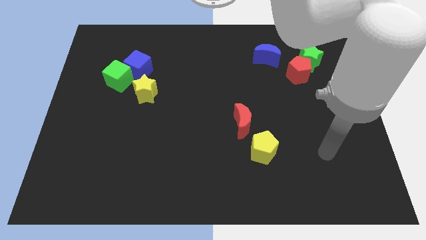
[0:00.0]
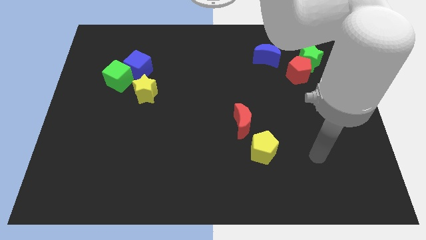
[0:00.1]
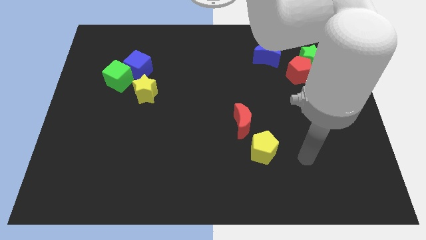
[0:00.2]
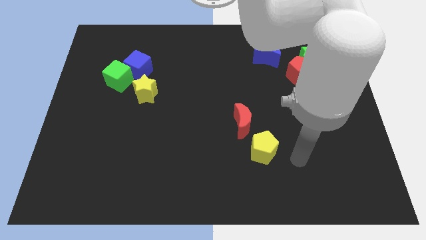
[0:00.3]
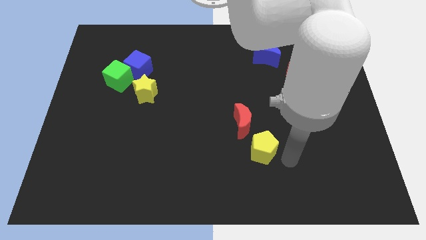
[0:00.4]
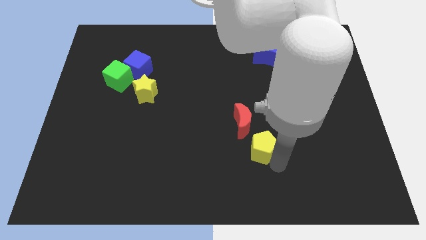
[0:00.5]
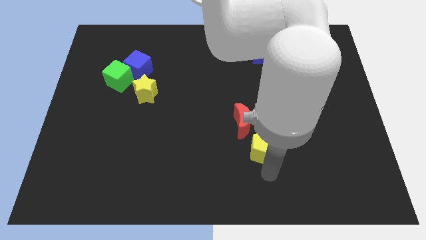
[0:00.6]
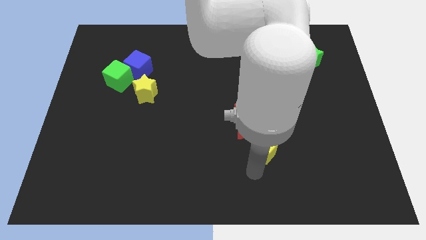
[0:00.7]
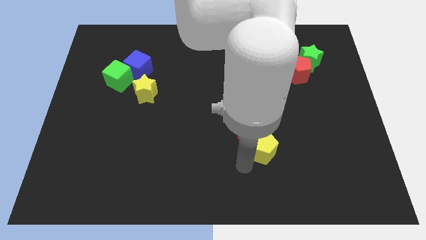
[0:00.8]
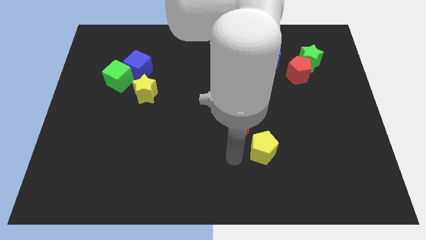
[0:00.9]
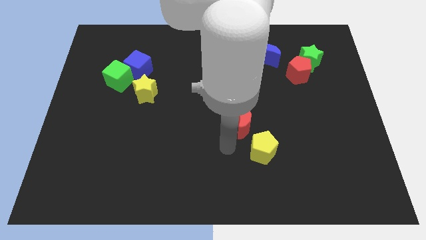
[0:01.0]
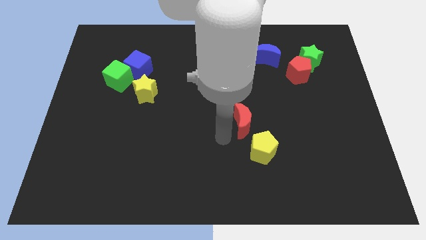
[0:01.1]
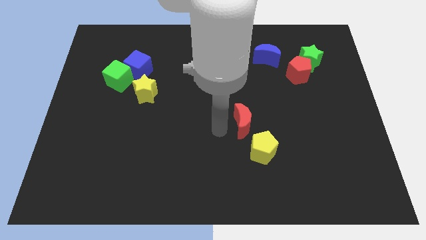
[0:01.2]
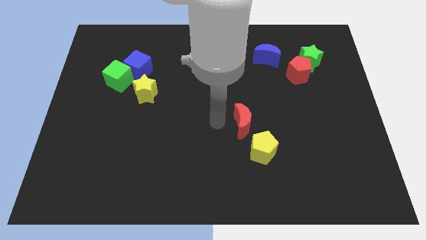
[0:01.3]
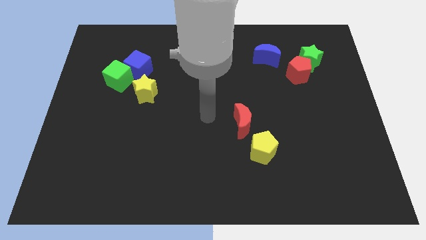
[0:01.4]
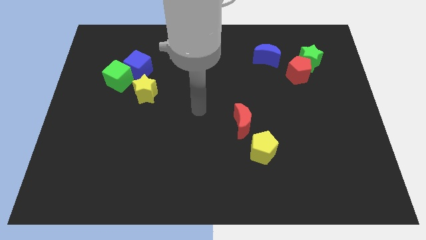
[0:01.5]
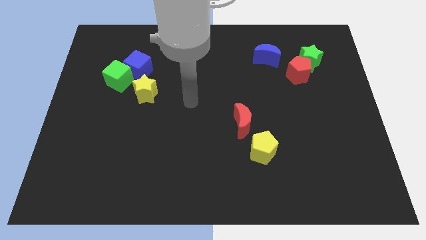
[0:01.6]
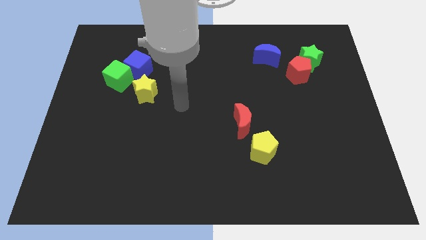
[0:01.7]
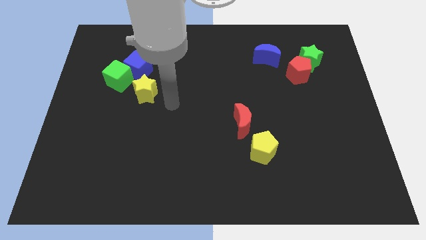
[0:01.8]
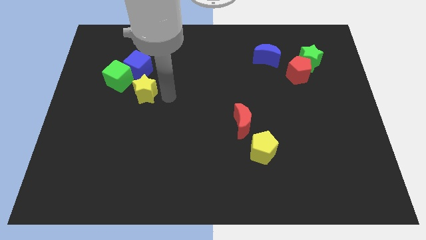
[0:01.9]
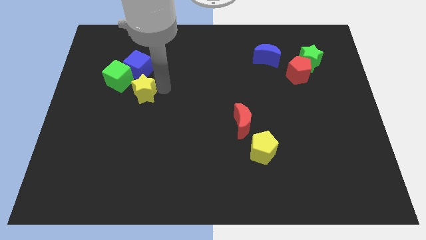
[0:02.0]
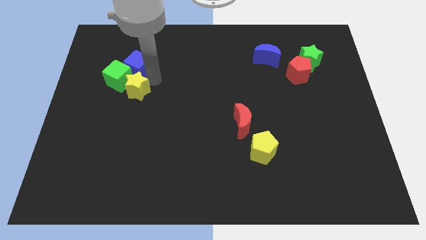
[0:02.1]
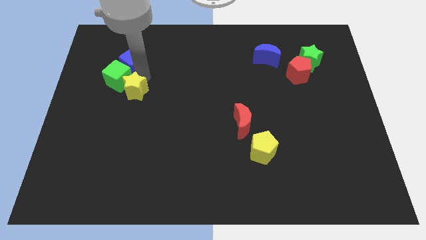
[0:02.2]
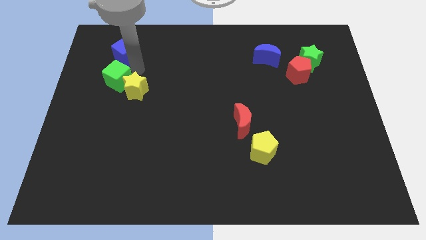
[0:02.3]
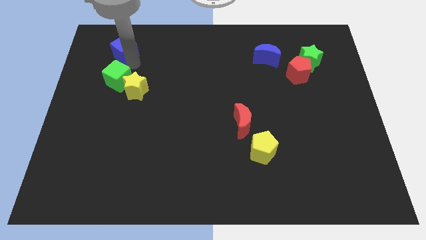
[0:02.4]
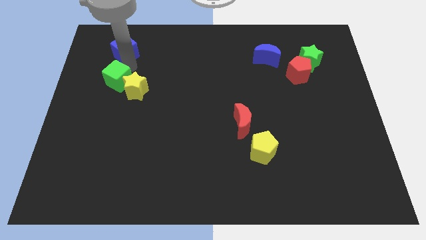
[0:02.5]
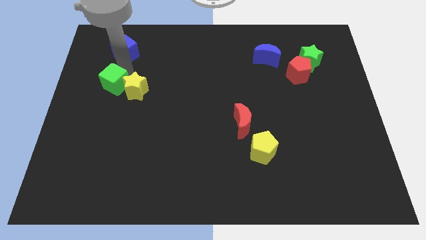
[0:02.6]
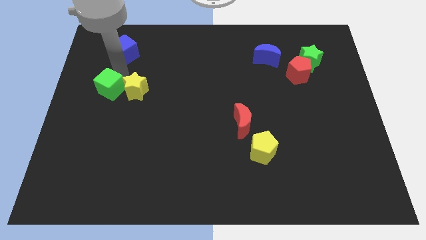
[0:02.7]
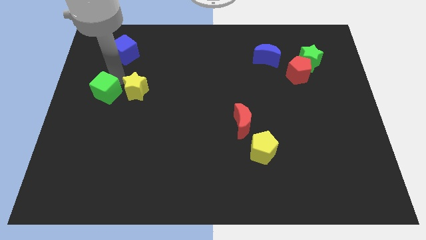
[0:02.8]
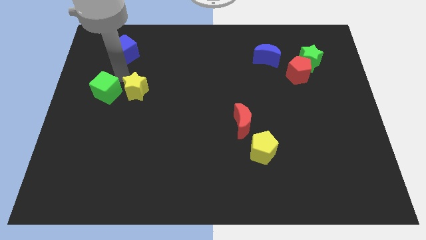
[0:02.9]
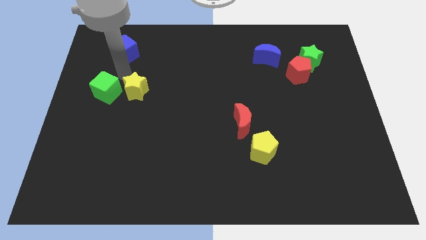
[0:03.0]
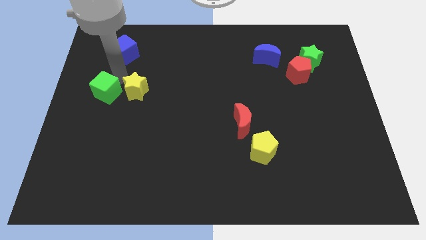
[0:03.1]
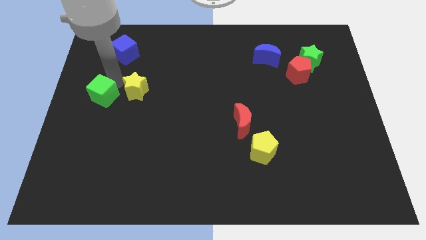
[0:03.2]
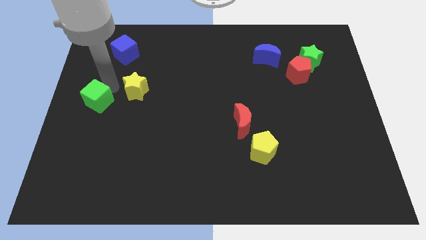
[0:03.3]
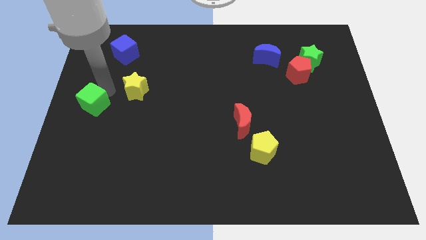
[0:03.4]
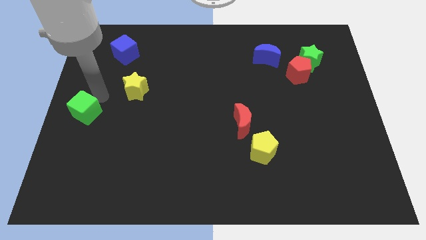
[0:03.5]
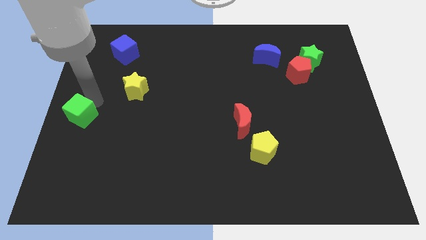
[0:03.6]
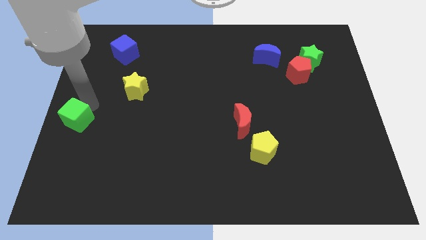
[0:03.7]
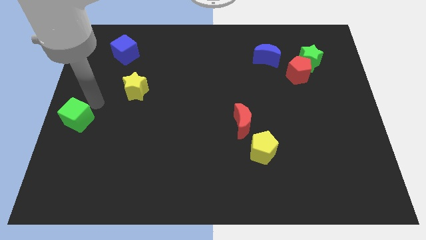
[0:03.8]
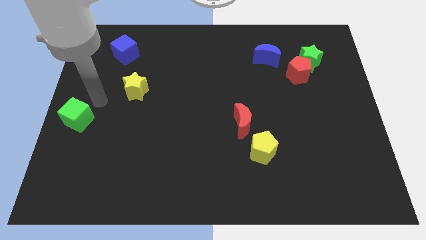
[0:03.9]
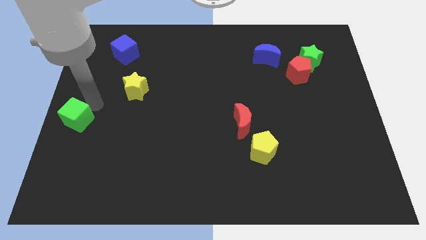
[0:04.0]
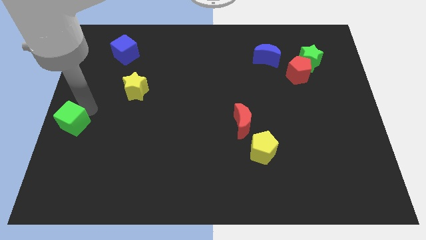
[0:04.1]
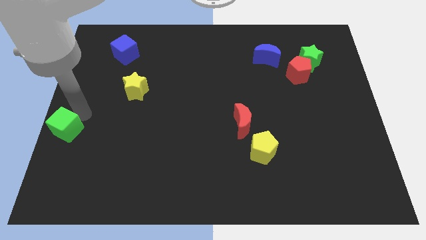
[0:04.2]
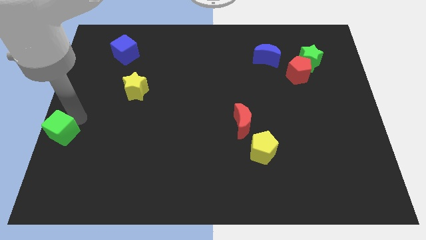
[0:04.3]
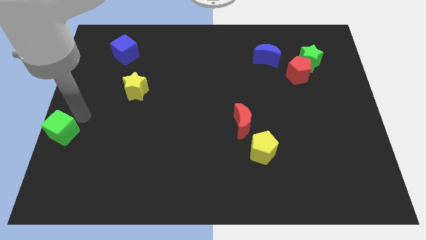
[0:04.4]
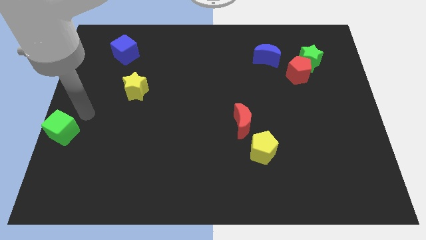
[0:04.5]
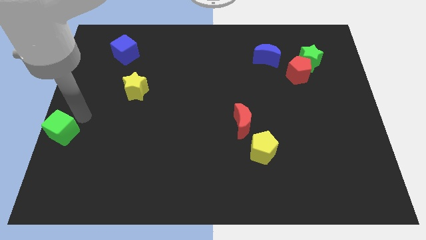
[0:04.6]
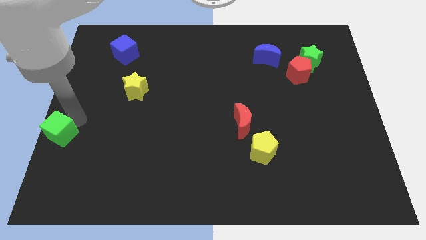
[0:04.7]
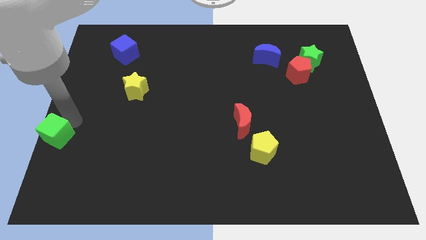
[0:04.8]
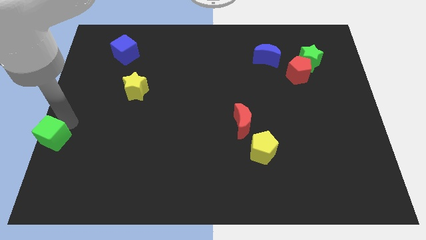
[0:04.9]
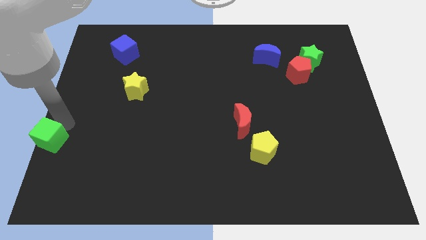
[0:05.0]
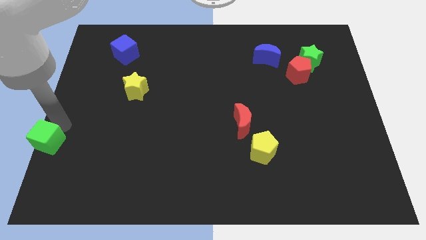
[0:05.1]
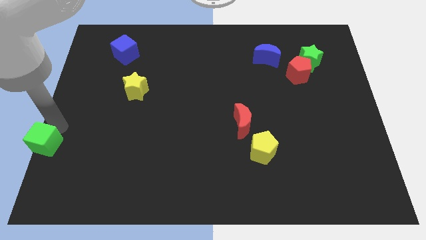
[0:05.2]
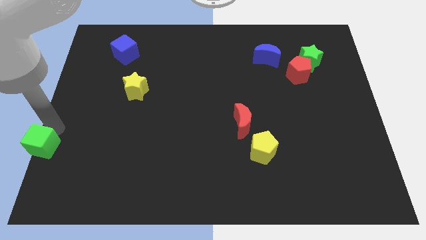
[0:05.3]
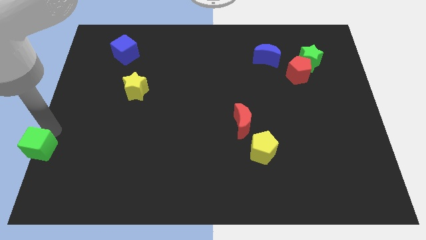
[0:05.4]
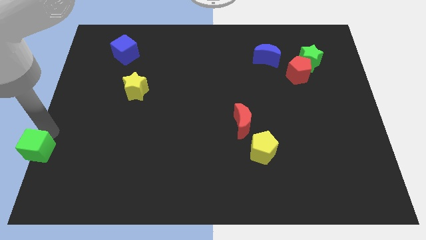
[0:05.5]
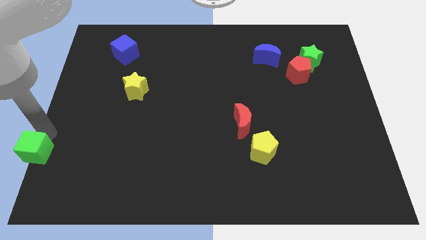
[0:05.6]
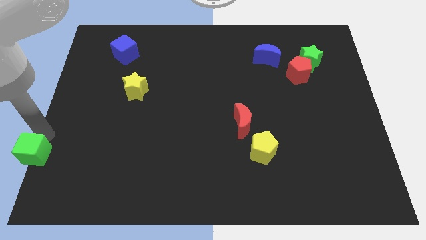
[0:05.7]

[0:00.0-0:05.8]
slide the green cube to the bottom left corner
